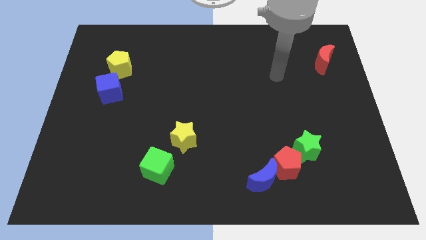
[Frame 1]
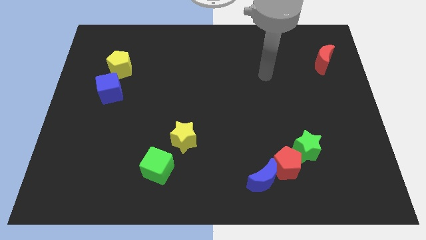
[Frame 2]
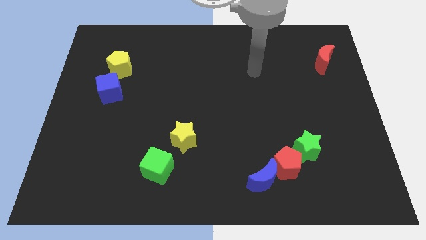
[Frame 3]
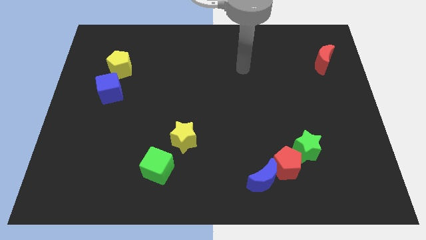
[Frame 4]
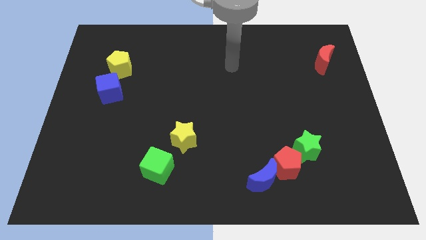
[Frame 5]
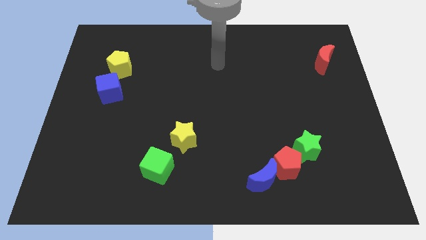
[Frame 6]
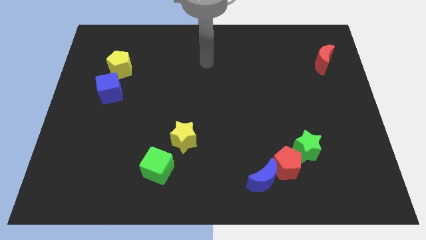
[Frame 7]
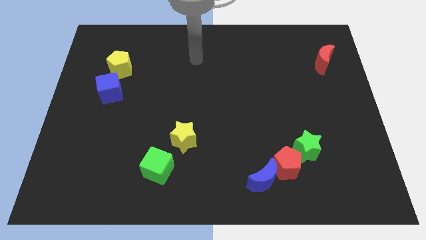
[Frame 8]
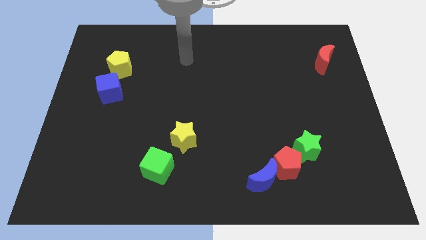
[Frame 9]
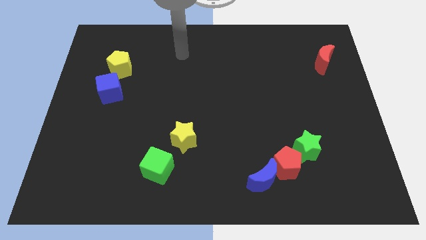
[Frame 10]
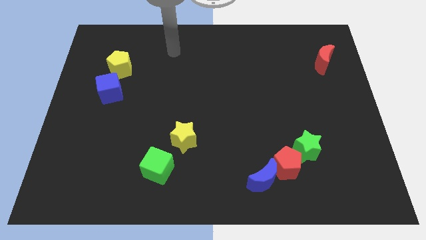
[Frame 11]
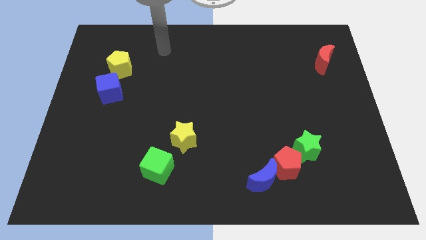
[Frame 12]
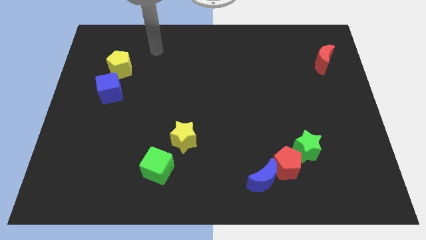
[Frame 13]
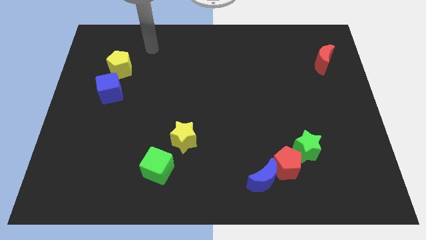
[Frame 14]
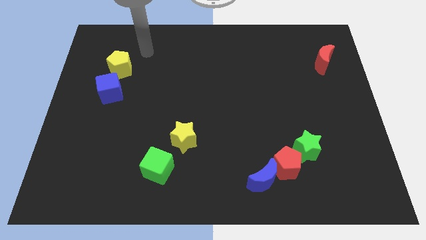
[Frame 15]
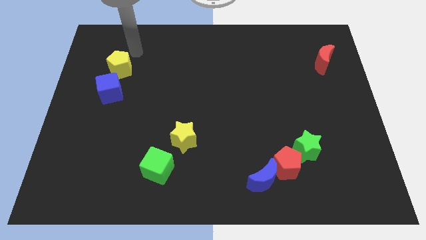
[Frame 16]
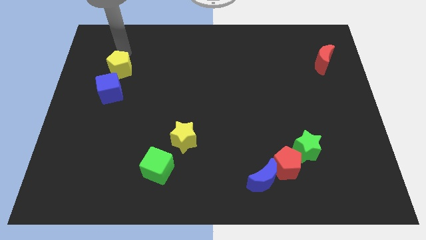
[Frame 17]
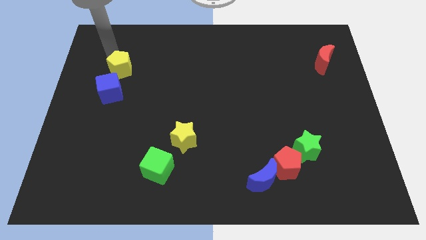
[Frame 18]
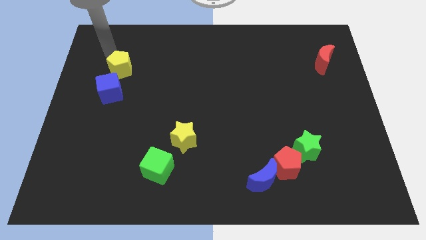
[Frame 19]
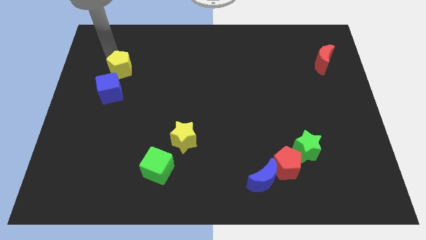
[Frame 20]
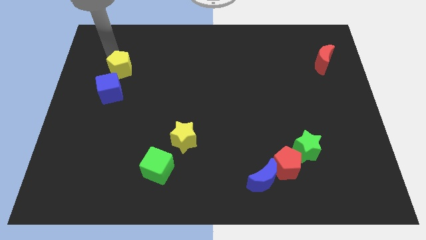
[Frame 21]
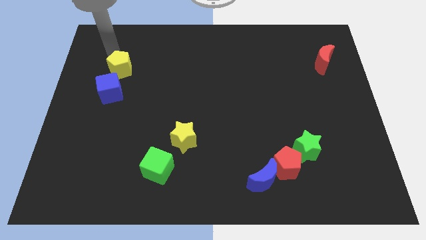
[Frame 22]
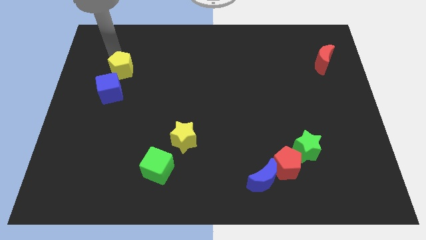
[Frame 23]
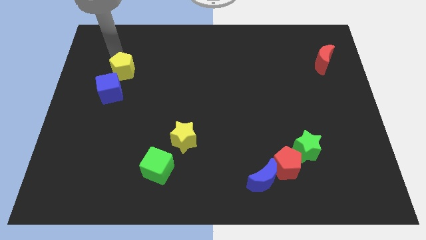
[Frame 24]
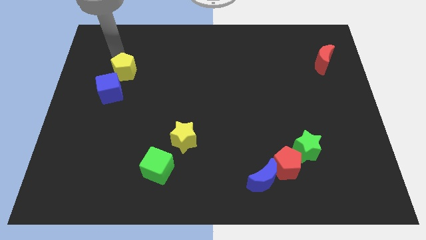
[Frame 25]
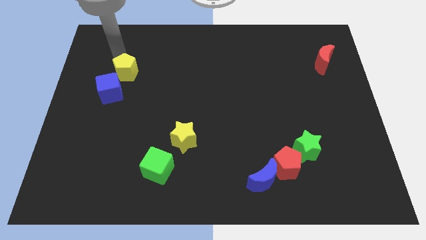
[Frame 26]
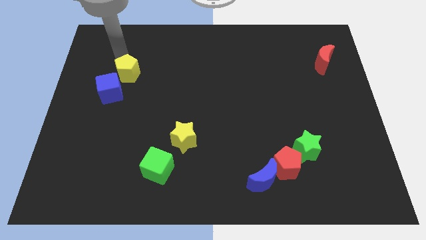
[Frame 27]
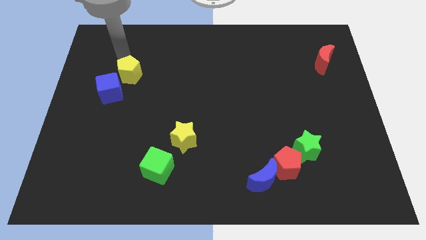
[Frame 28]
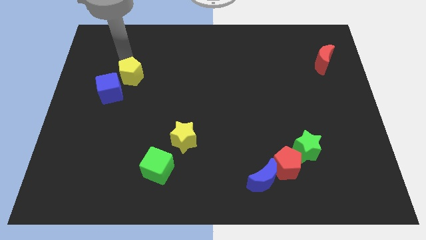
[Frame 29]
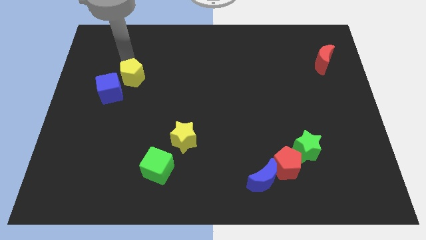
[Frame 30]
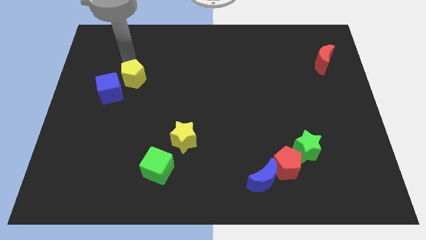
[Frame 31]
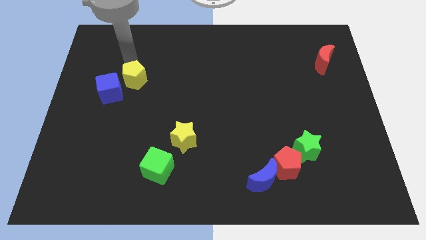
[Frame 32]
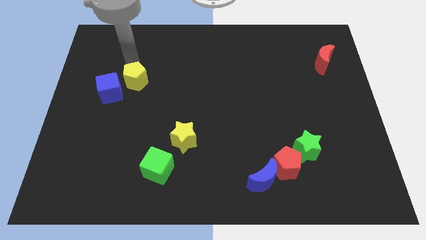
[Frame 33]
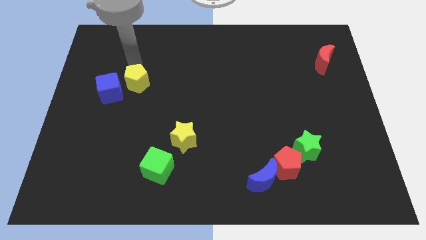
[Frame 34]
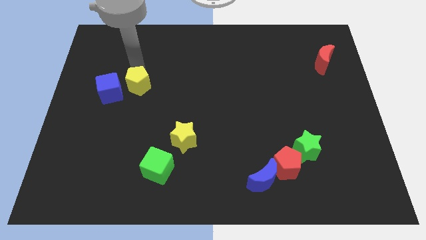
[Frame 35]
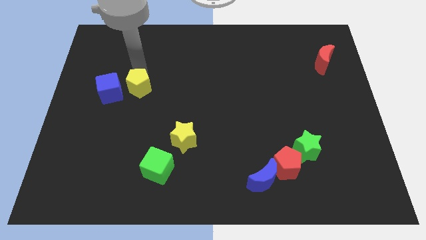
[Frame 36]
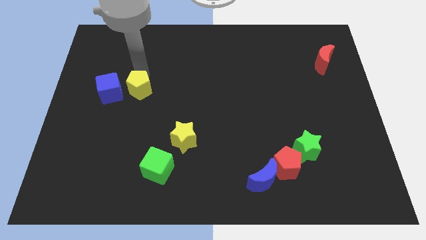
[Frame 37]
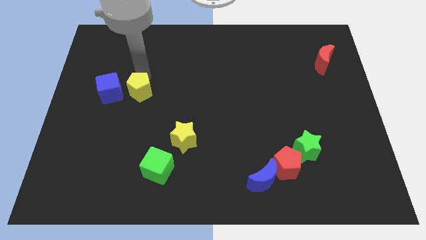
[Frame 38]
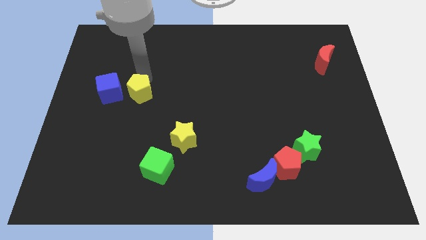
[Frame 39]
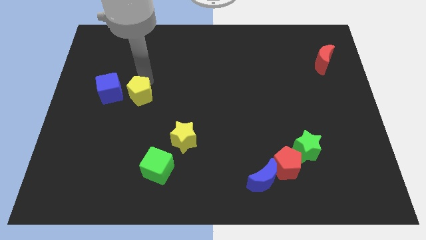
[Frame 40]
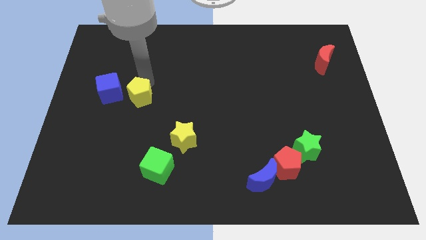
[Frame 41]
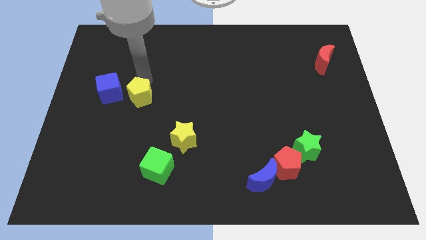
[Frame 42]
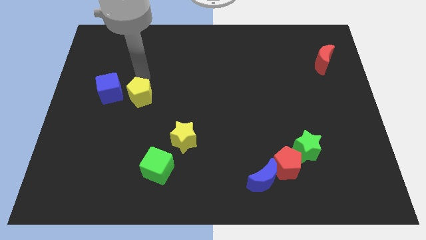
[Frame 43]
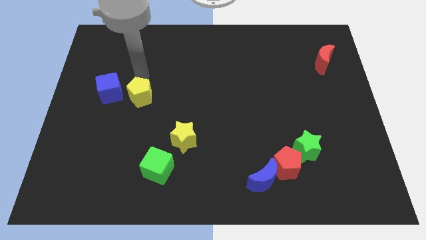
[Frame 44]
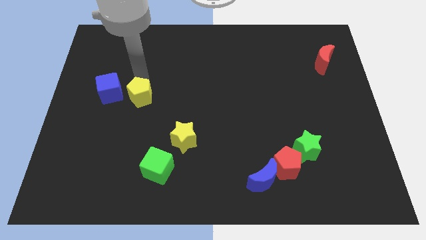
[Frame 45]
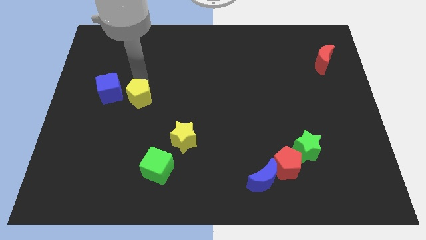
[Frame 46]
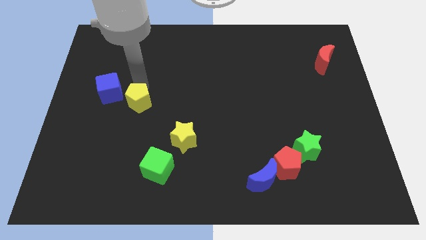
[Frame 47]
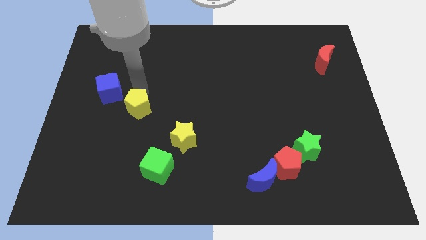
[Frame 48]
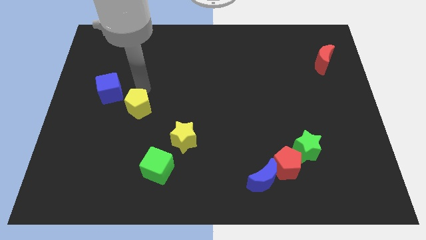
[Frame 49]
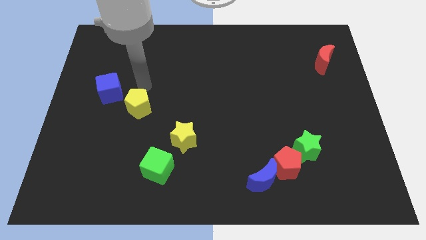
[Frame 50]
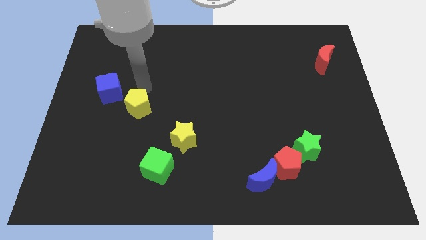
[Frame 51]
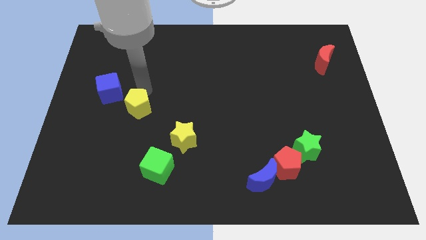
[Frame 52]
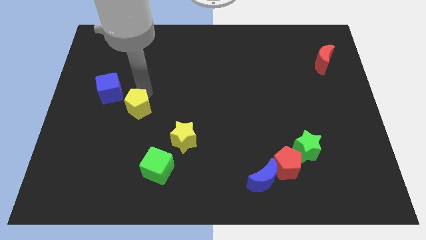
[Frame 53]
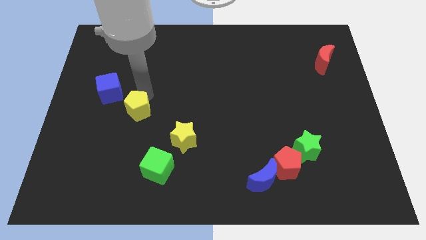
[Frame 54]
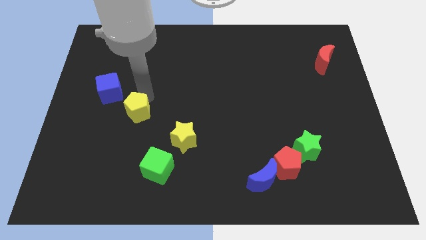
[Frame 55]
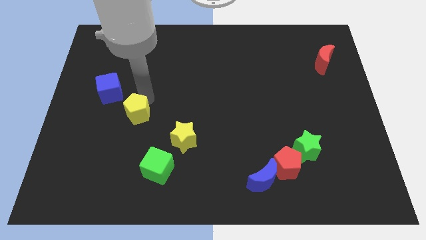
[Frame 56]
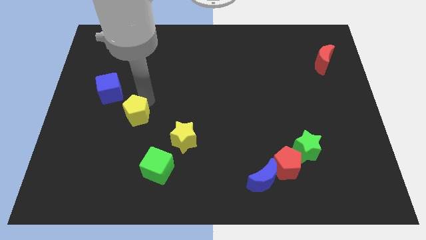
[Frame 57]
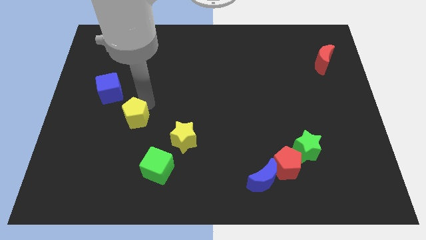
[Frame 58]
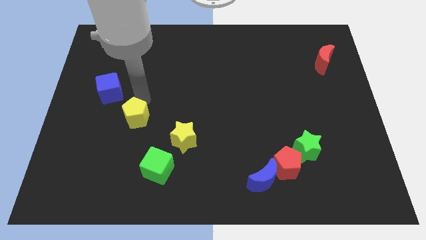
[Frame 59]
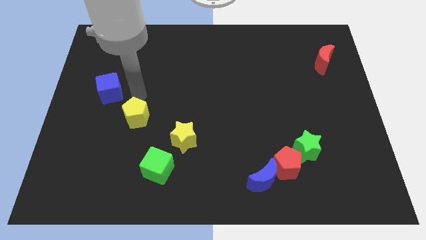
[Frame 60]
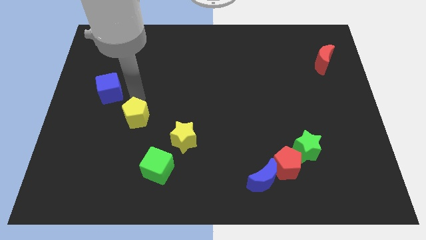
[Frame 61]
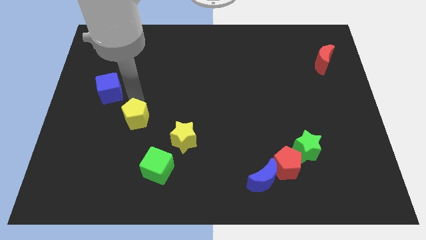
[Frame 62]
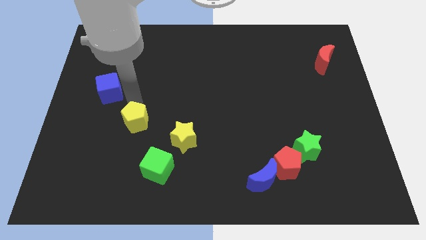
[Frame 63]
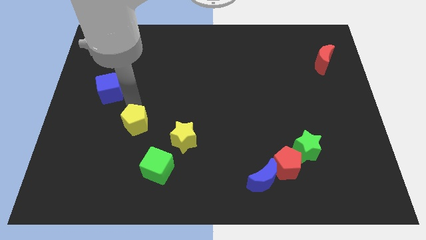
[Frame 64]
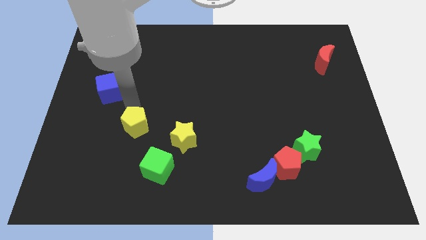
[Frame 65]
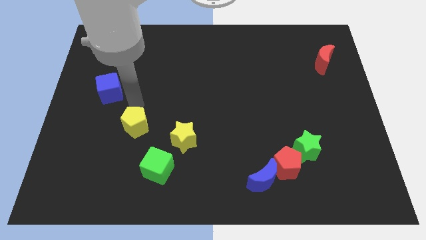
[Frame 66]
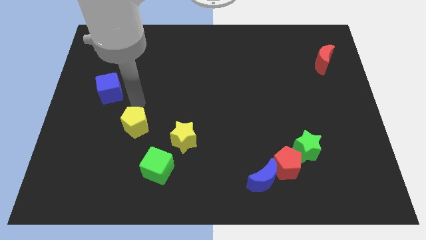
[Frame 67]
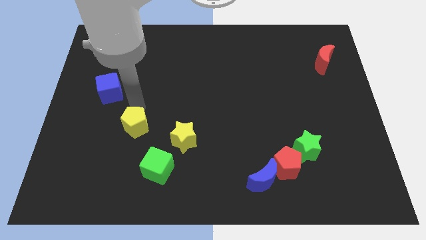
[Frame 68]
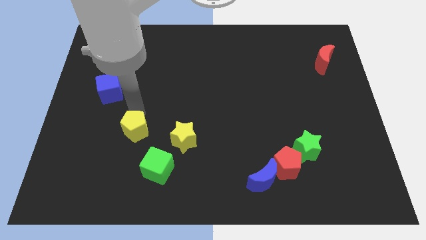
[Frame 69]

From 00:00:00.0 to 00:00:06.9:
move the yellow pentagon to the top left of the green cube

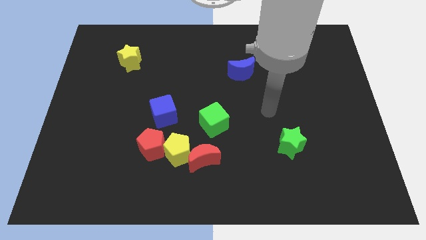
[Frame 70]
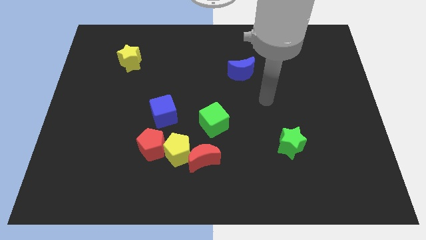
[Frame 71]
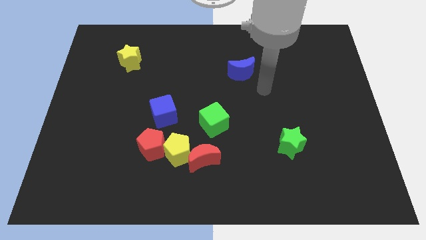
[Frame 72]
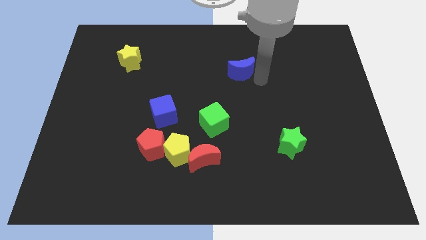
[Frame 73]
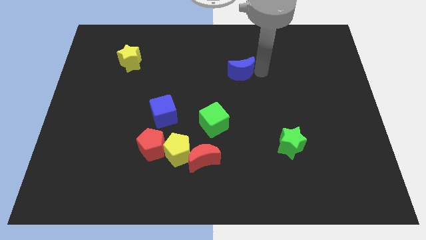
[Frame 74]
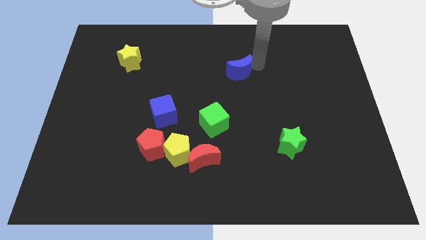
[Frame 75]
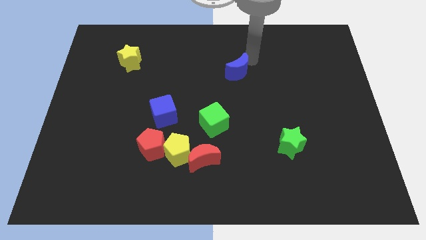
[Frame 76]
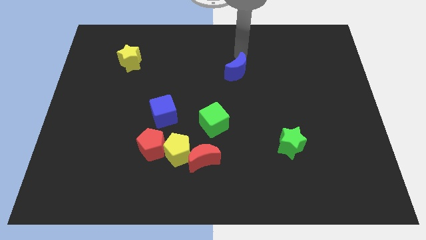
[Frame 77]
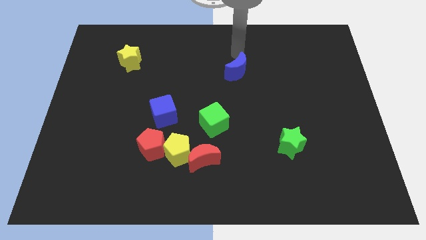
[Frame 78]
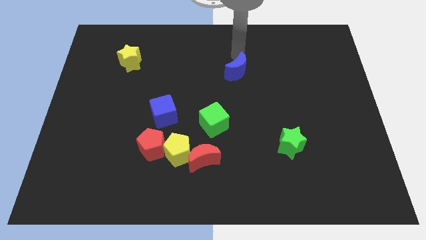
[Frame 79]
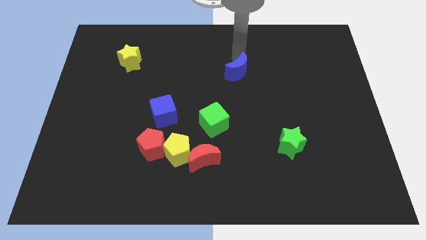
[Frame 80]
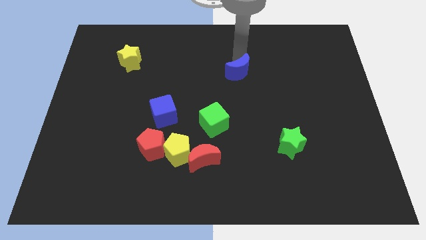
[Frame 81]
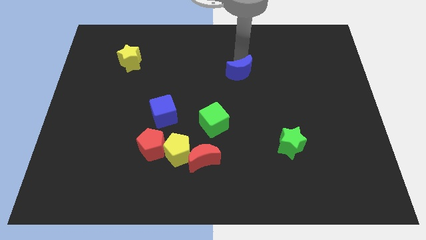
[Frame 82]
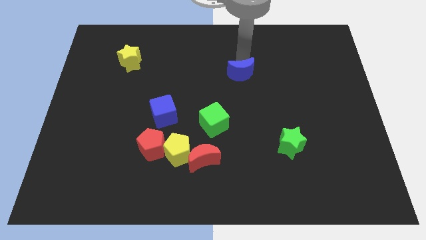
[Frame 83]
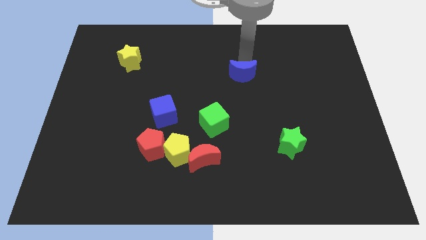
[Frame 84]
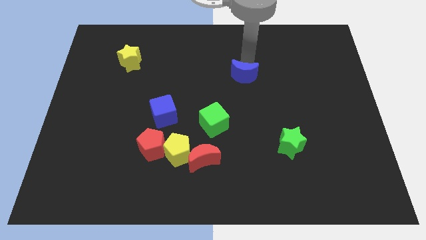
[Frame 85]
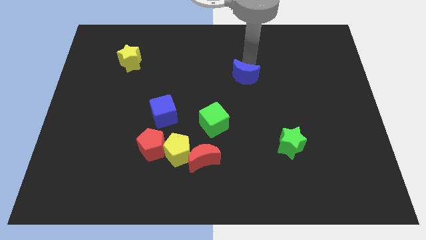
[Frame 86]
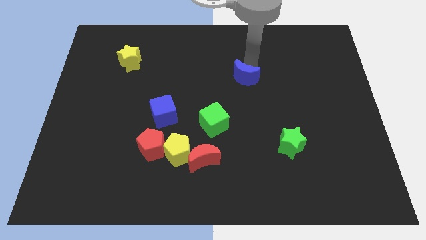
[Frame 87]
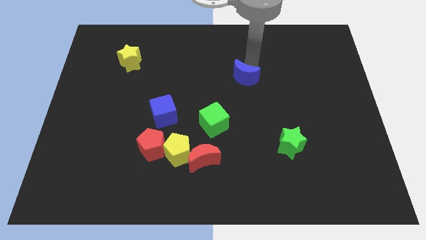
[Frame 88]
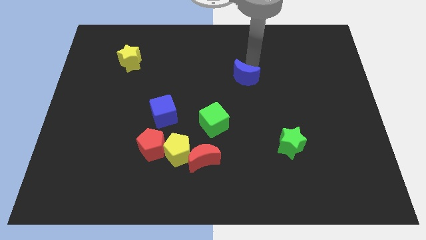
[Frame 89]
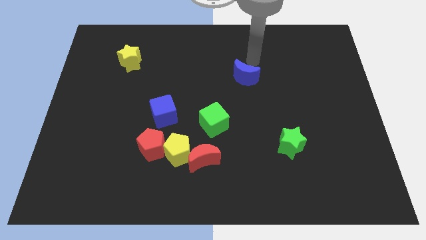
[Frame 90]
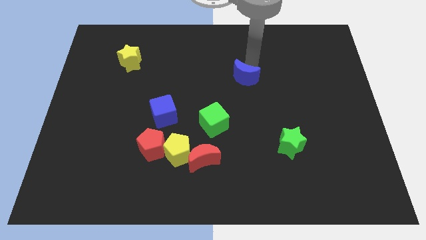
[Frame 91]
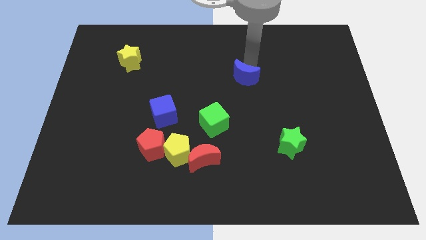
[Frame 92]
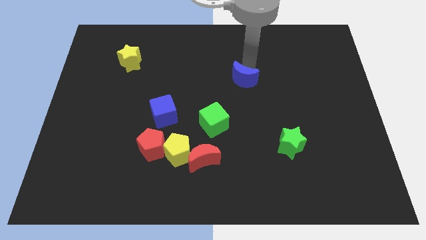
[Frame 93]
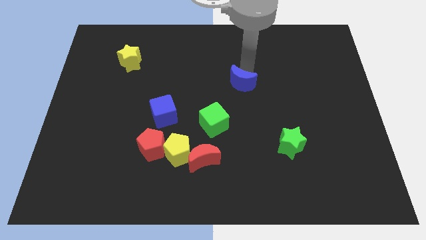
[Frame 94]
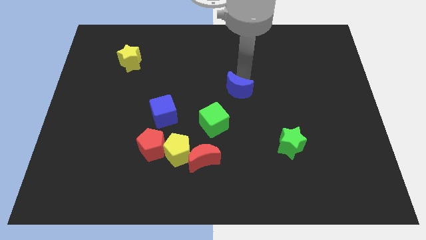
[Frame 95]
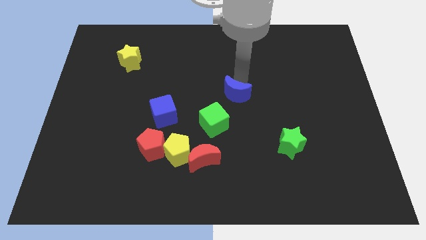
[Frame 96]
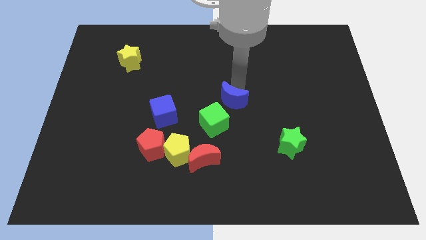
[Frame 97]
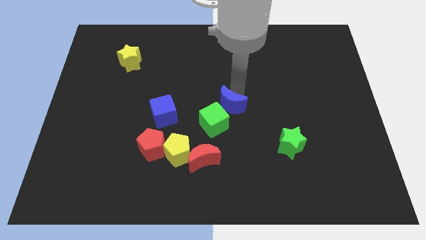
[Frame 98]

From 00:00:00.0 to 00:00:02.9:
put the blue moon right of the blue cube
